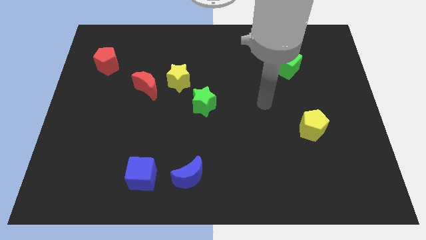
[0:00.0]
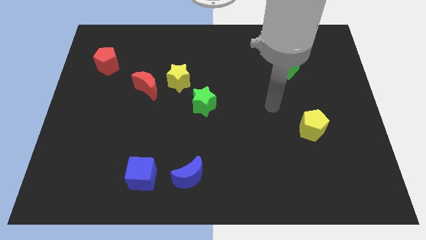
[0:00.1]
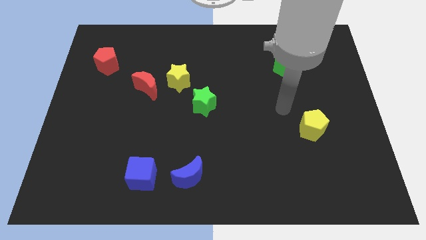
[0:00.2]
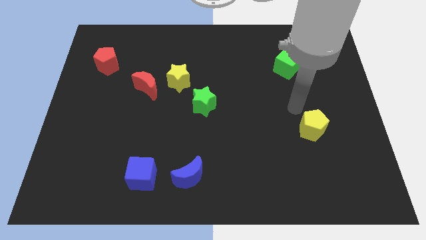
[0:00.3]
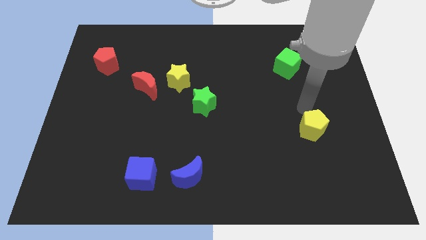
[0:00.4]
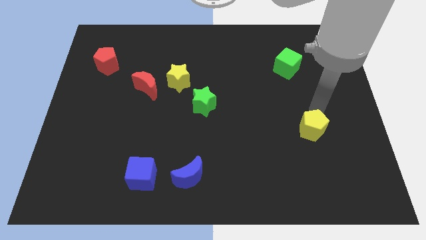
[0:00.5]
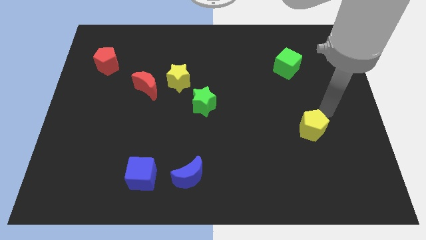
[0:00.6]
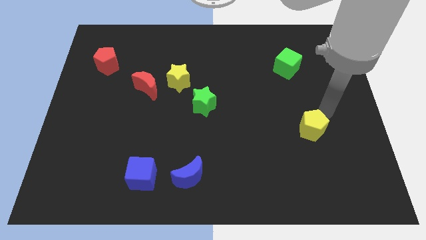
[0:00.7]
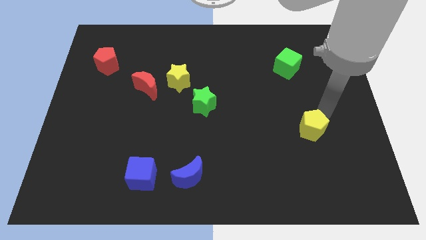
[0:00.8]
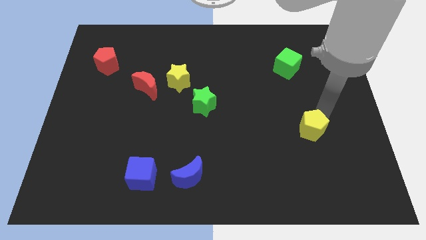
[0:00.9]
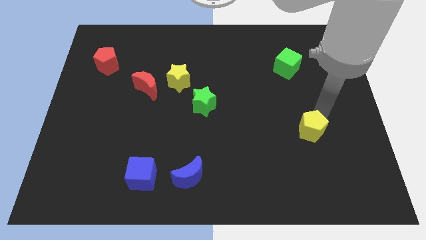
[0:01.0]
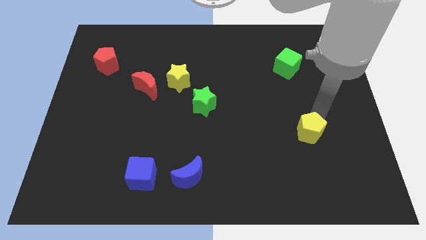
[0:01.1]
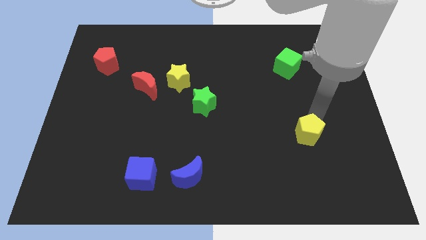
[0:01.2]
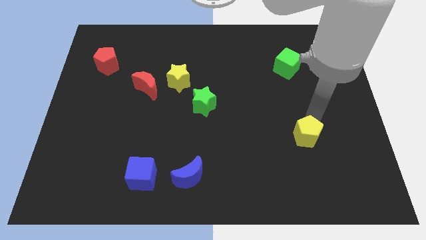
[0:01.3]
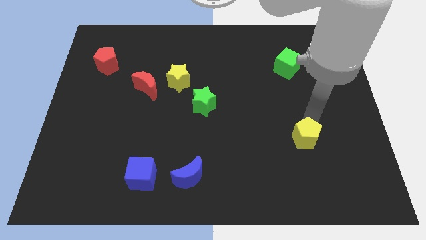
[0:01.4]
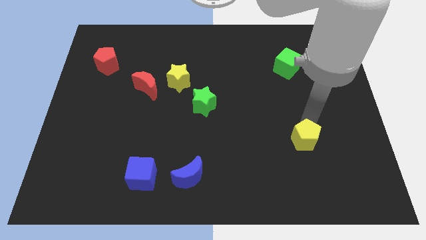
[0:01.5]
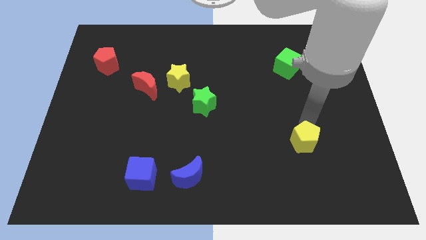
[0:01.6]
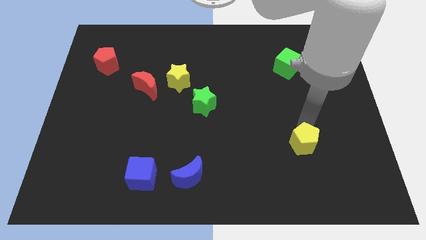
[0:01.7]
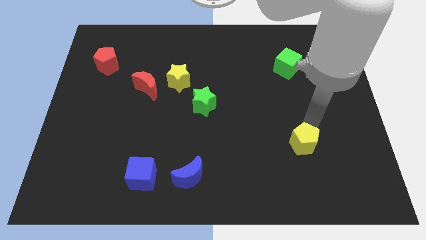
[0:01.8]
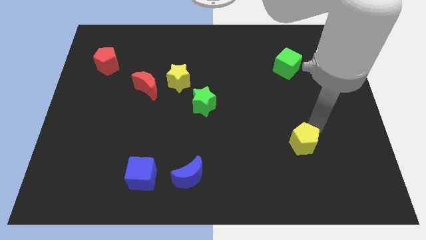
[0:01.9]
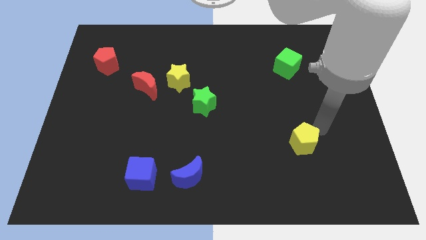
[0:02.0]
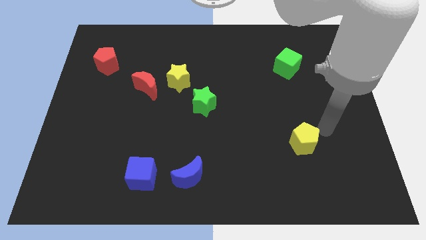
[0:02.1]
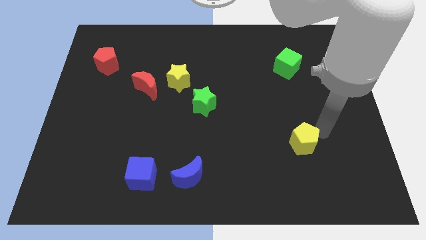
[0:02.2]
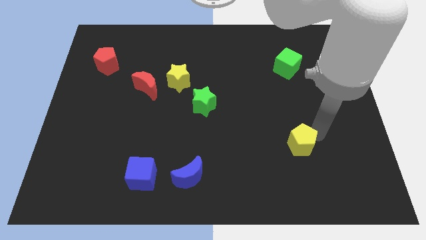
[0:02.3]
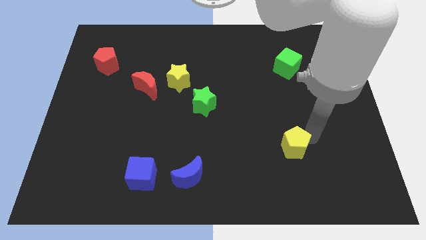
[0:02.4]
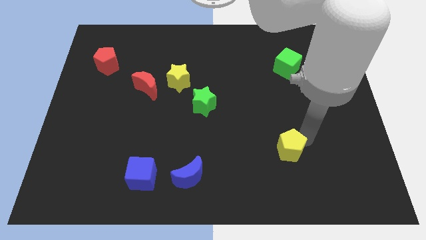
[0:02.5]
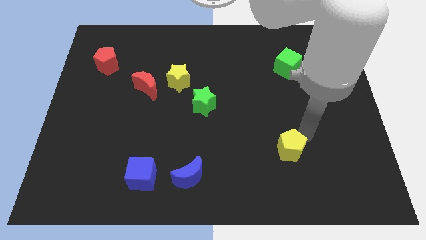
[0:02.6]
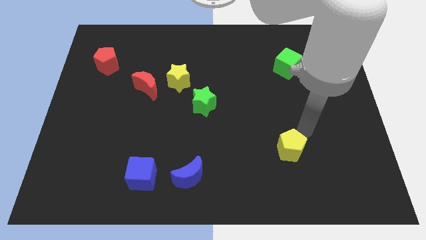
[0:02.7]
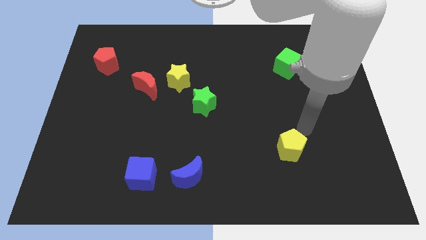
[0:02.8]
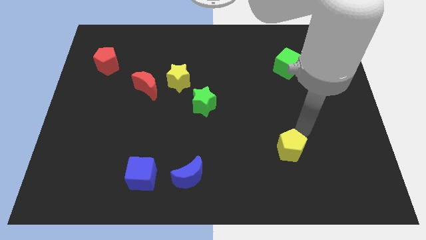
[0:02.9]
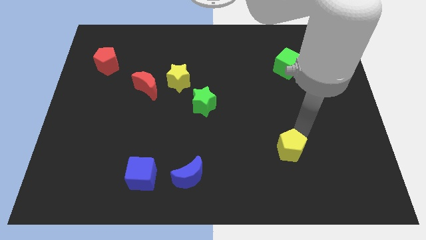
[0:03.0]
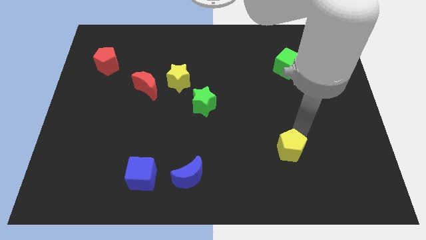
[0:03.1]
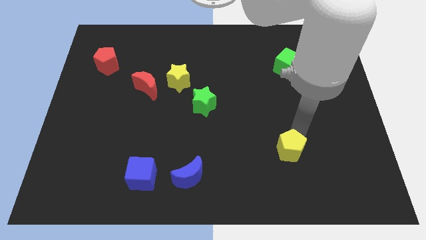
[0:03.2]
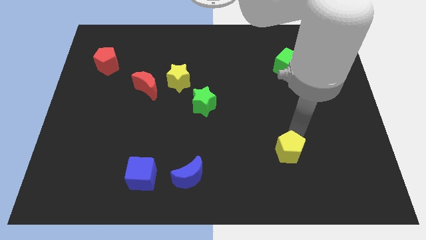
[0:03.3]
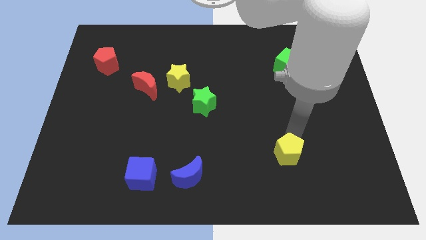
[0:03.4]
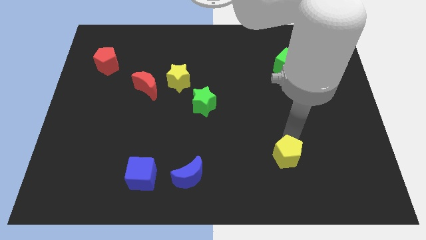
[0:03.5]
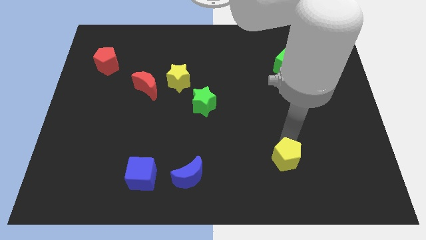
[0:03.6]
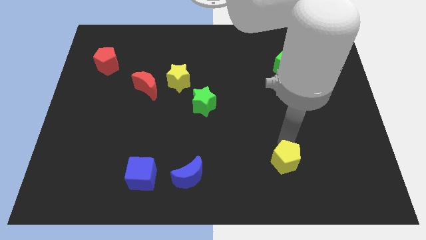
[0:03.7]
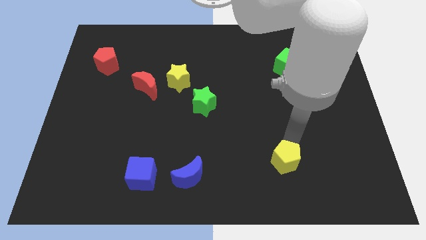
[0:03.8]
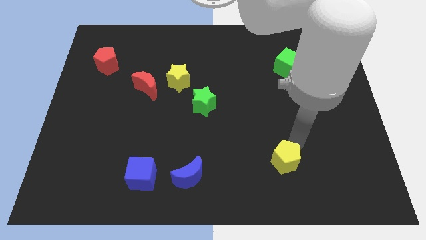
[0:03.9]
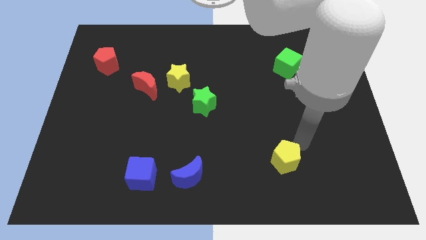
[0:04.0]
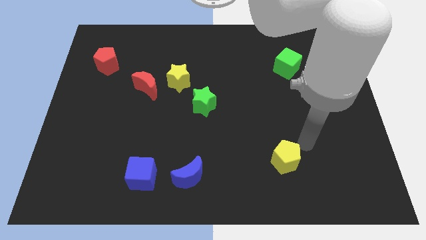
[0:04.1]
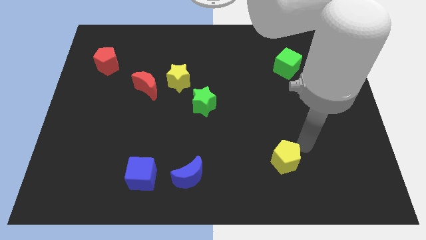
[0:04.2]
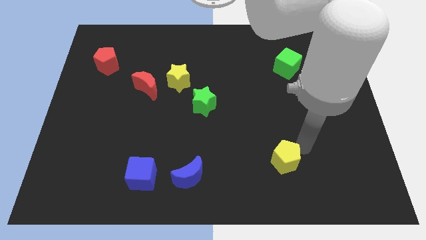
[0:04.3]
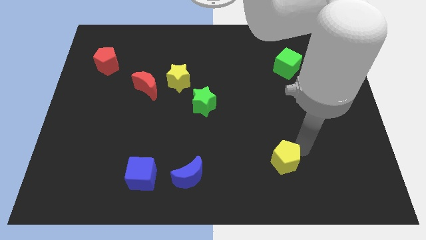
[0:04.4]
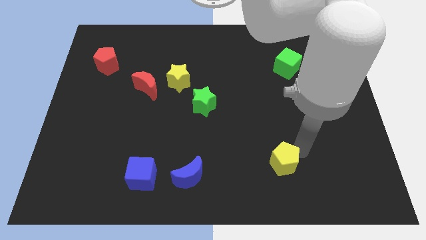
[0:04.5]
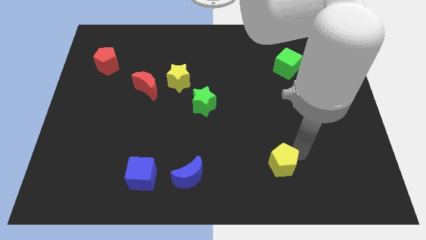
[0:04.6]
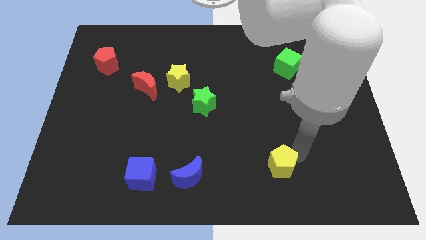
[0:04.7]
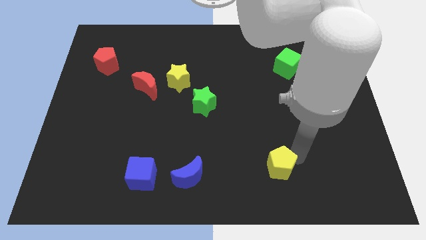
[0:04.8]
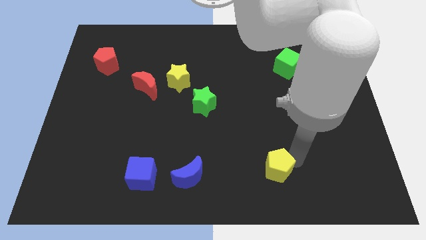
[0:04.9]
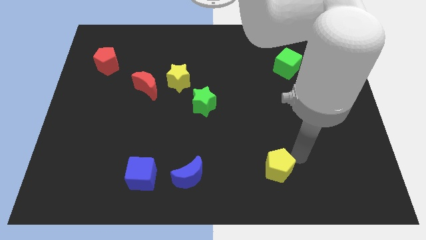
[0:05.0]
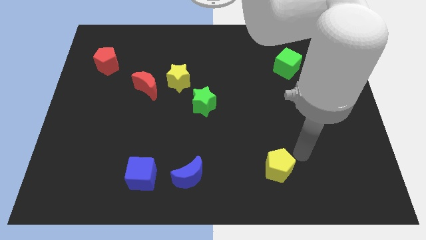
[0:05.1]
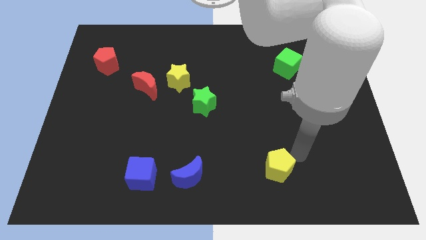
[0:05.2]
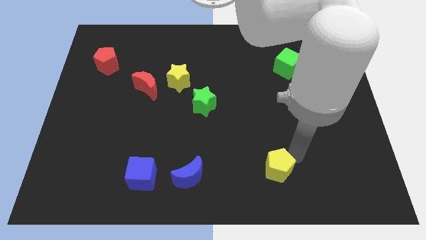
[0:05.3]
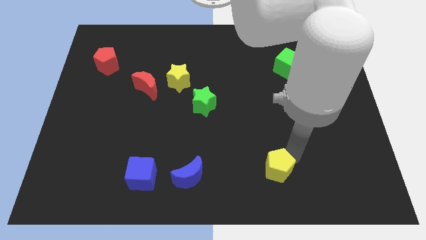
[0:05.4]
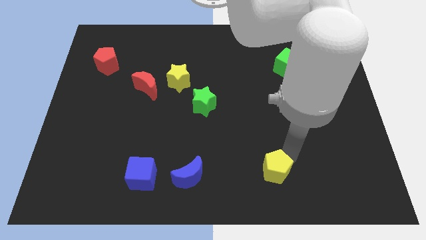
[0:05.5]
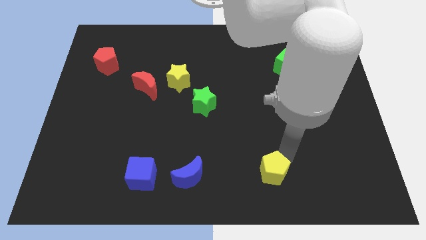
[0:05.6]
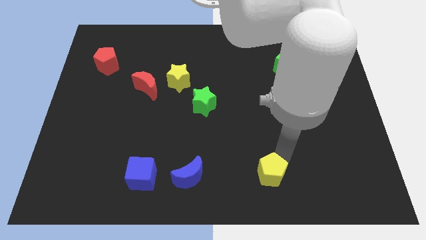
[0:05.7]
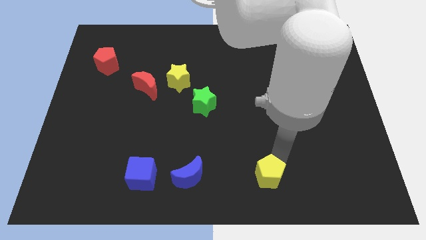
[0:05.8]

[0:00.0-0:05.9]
move the yellow pentagon to the bottom
